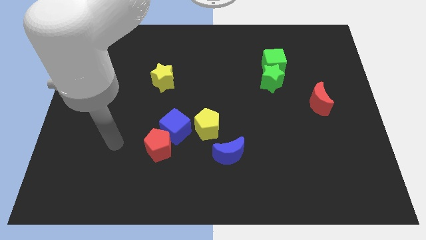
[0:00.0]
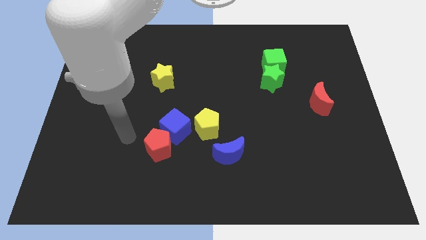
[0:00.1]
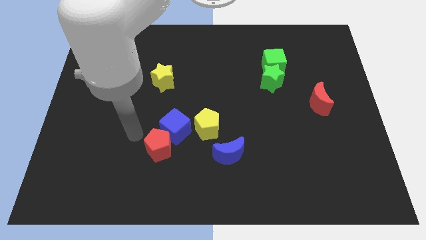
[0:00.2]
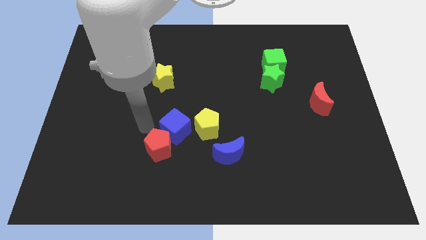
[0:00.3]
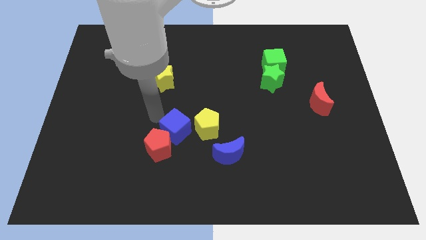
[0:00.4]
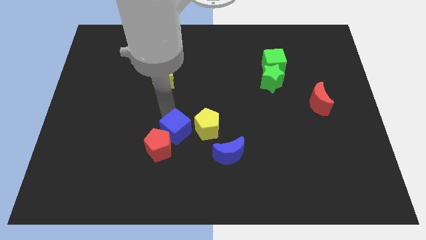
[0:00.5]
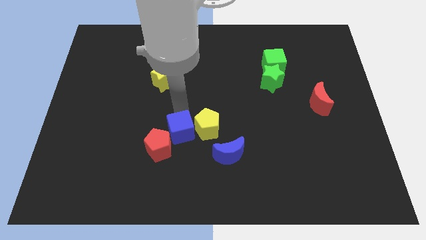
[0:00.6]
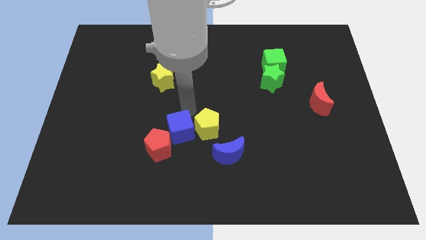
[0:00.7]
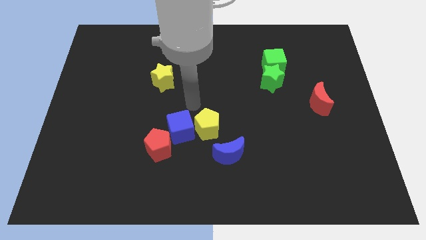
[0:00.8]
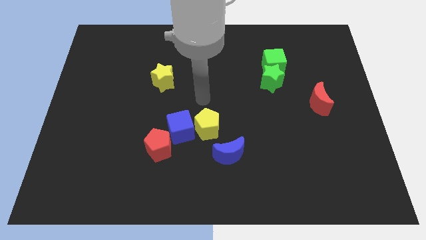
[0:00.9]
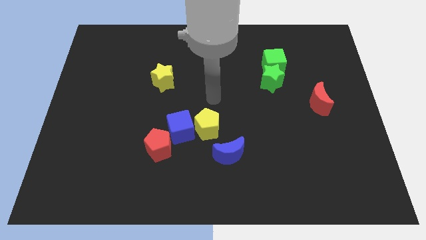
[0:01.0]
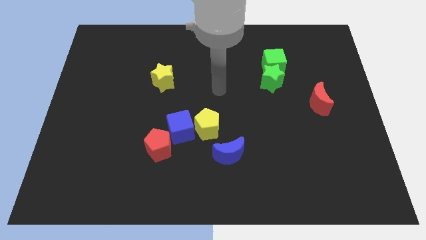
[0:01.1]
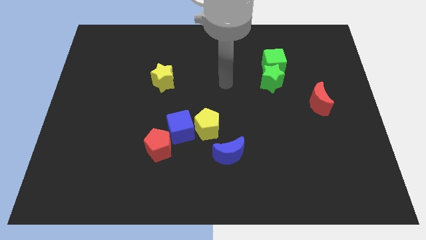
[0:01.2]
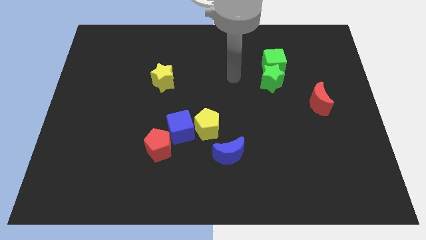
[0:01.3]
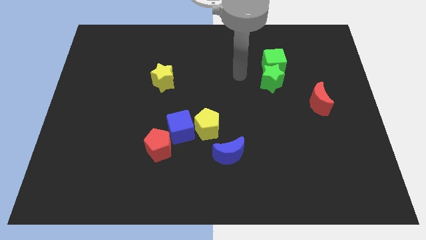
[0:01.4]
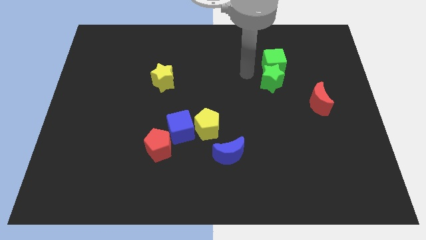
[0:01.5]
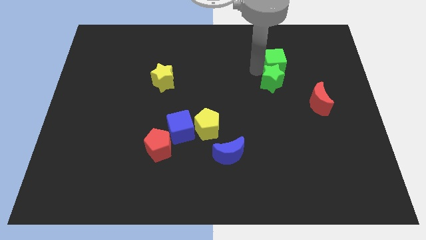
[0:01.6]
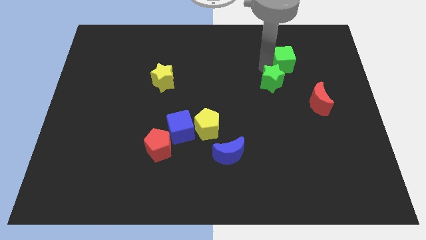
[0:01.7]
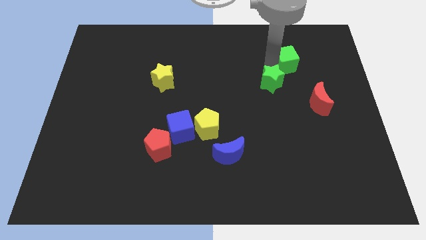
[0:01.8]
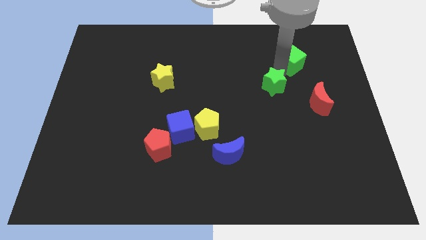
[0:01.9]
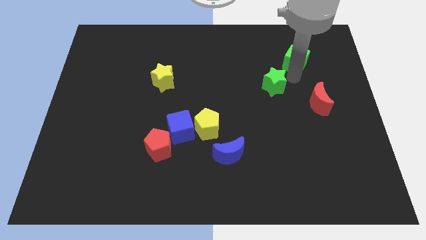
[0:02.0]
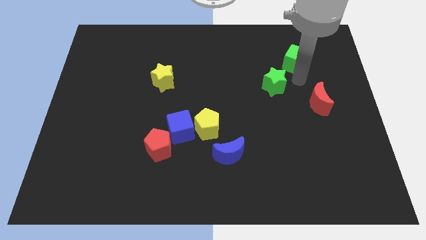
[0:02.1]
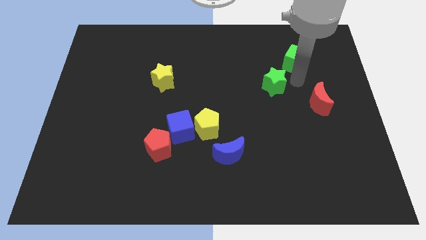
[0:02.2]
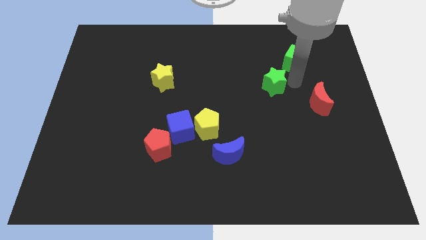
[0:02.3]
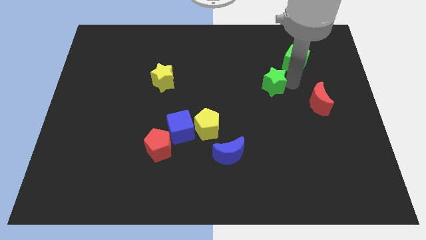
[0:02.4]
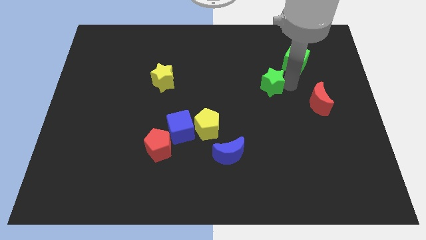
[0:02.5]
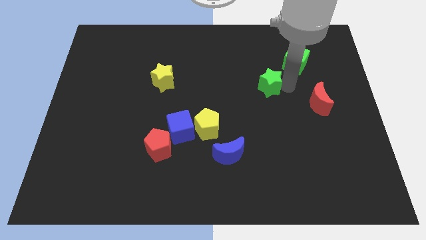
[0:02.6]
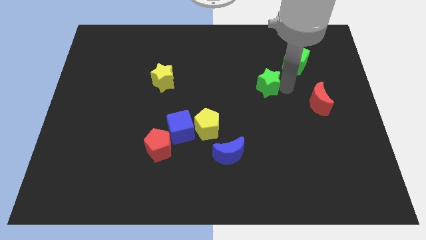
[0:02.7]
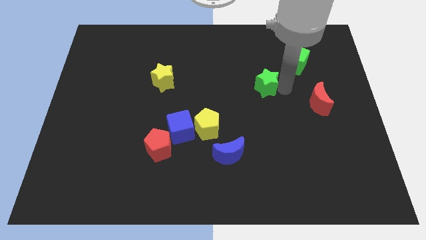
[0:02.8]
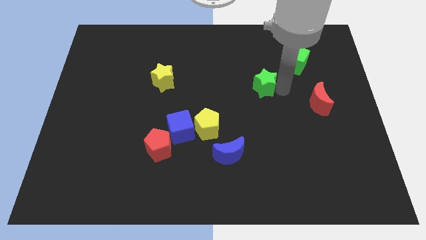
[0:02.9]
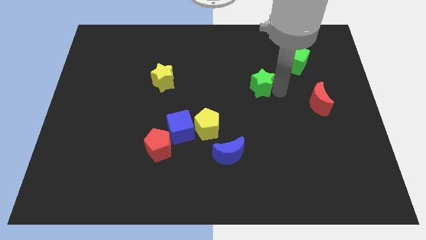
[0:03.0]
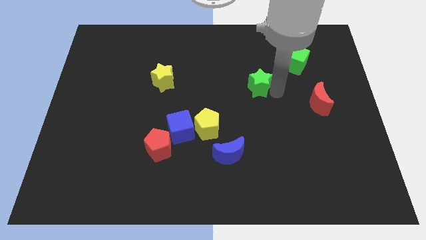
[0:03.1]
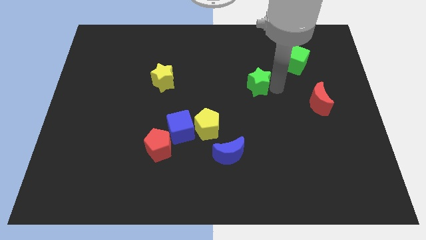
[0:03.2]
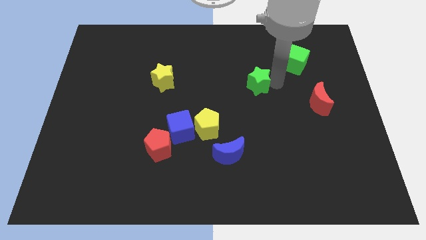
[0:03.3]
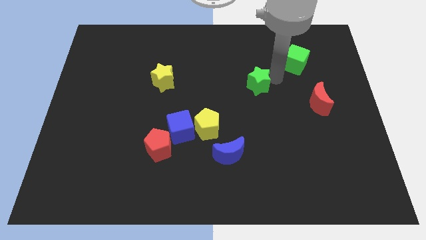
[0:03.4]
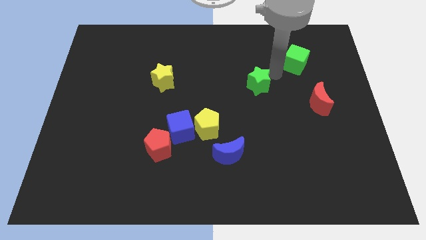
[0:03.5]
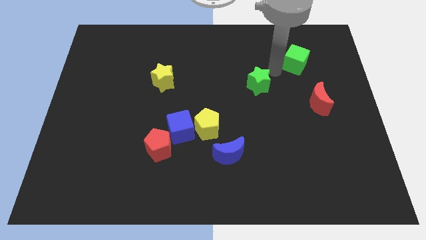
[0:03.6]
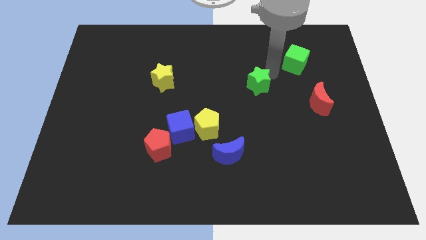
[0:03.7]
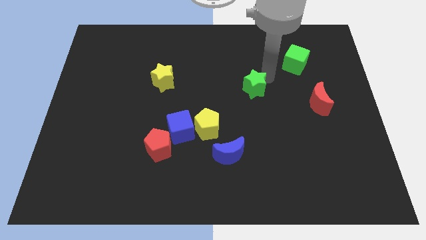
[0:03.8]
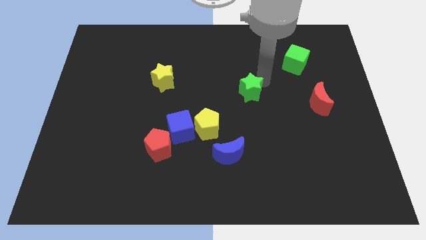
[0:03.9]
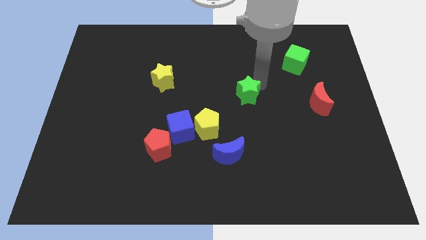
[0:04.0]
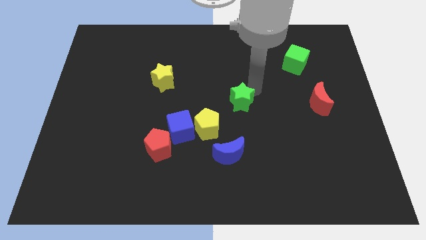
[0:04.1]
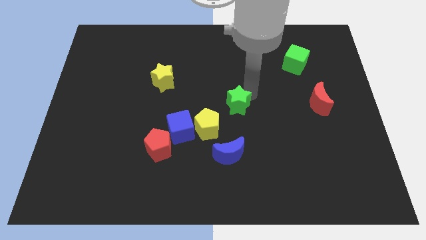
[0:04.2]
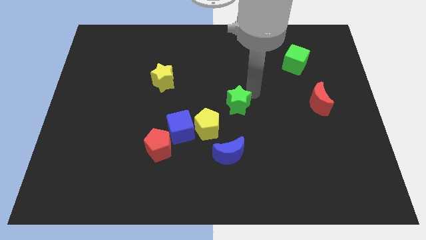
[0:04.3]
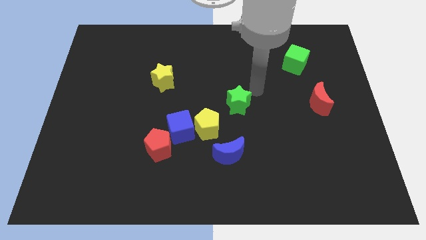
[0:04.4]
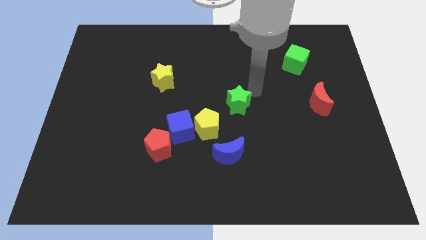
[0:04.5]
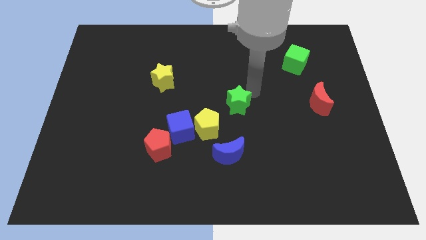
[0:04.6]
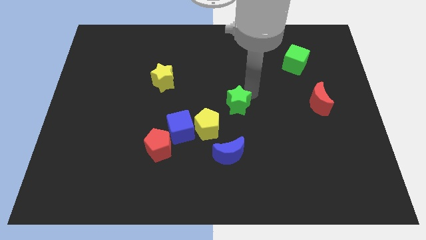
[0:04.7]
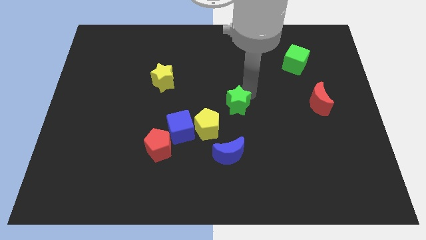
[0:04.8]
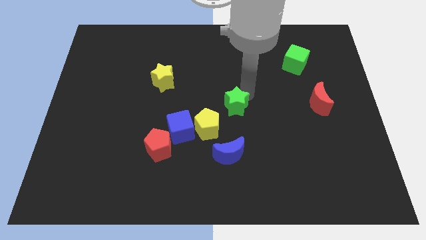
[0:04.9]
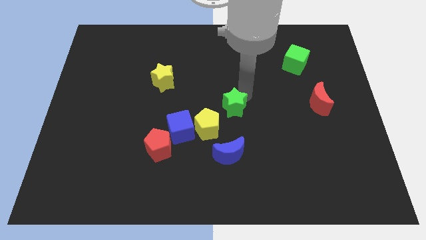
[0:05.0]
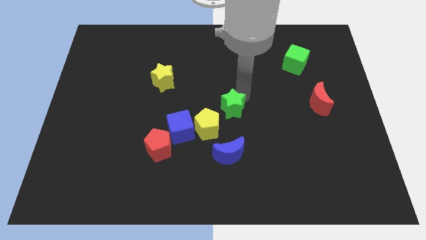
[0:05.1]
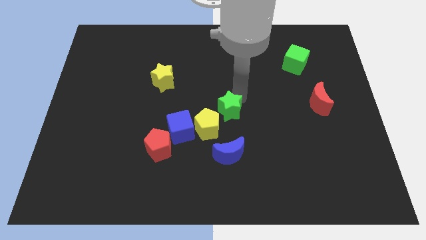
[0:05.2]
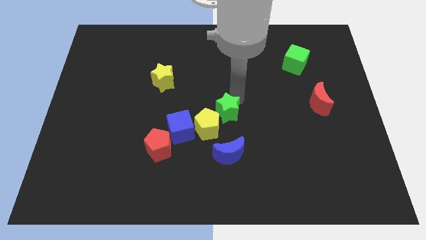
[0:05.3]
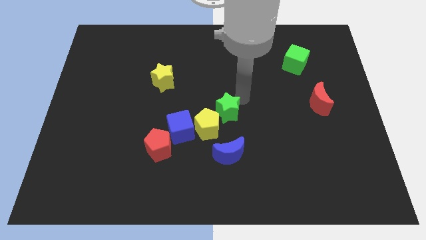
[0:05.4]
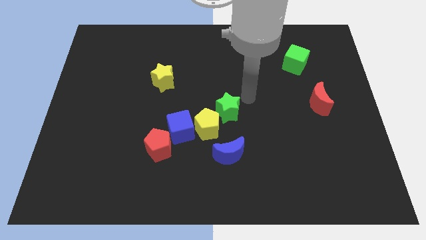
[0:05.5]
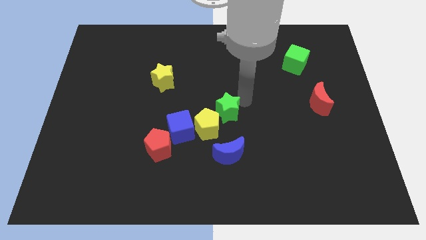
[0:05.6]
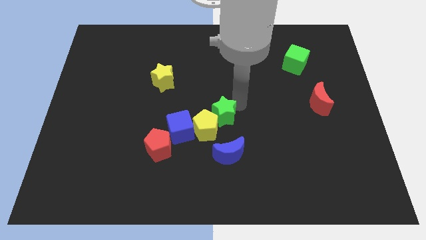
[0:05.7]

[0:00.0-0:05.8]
push the green star close to the yellow pentagon

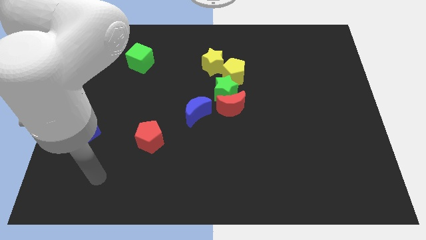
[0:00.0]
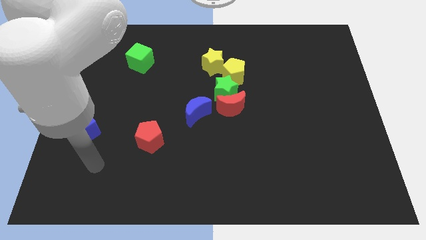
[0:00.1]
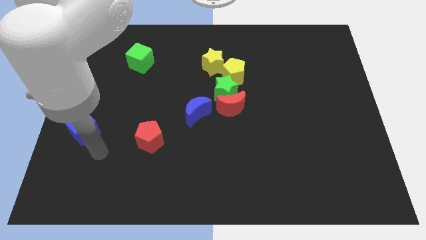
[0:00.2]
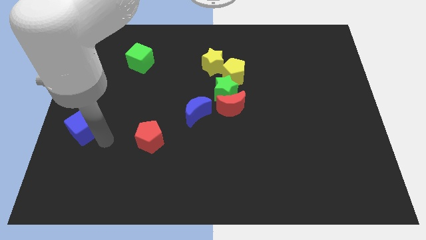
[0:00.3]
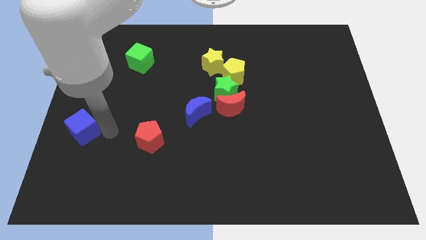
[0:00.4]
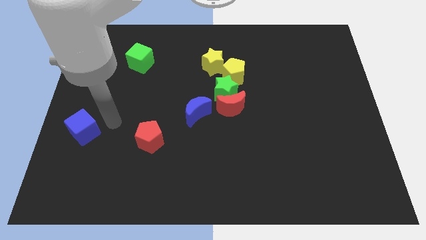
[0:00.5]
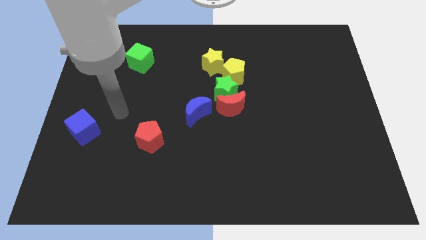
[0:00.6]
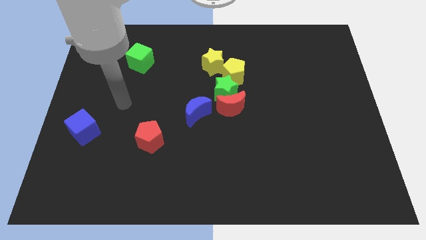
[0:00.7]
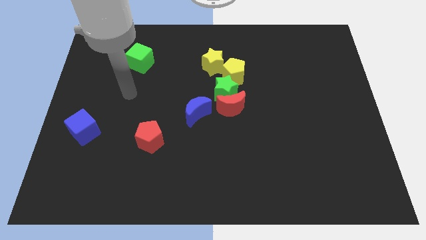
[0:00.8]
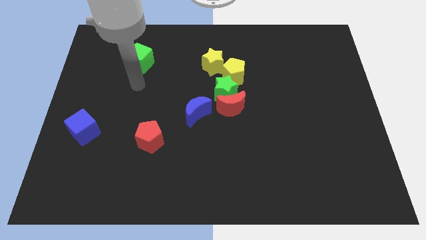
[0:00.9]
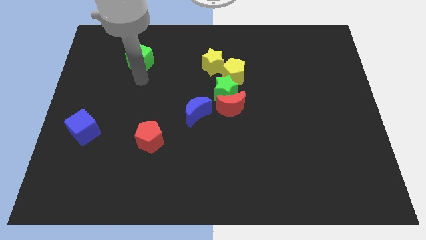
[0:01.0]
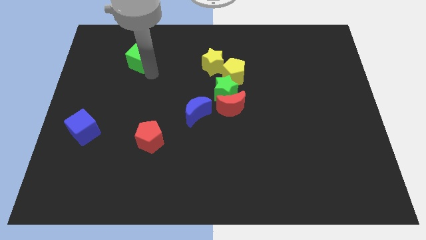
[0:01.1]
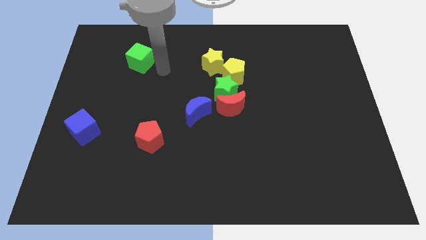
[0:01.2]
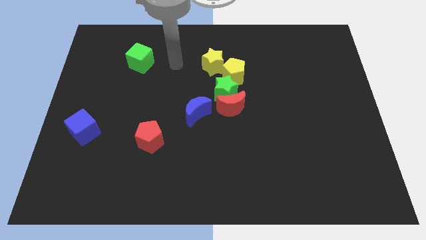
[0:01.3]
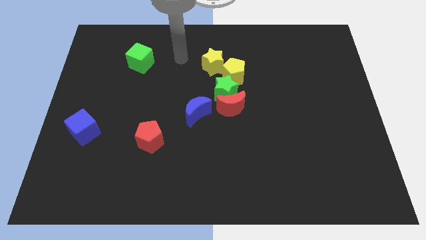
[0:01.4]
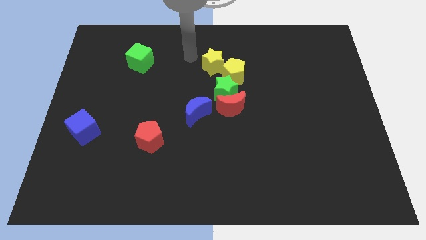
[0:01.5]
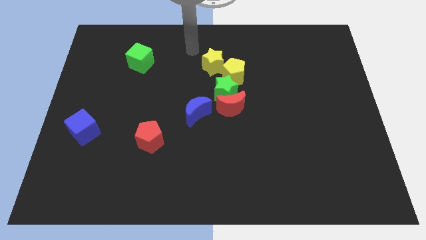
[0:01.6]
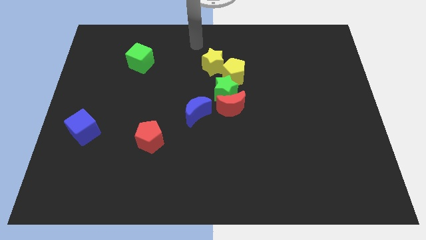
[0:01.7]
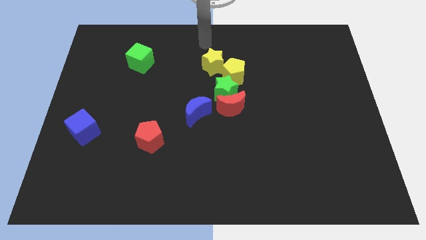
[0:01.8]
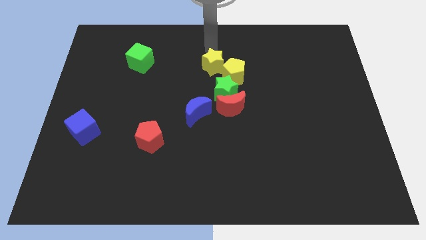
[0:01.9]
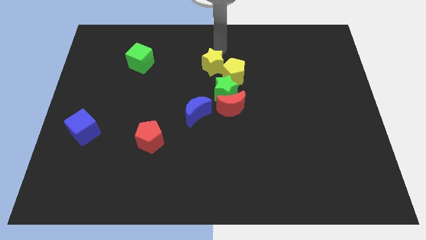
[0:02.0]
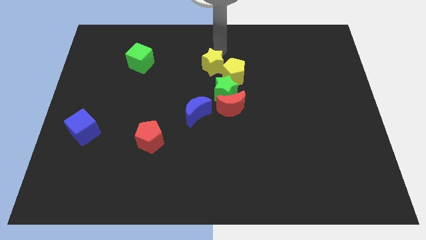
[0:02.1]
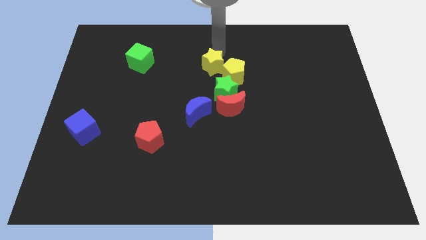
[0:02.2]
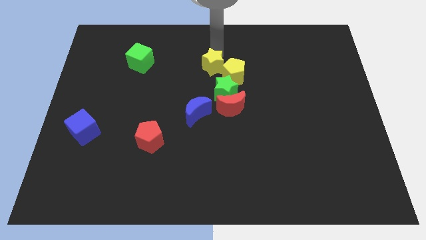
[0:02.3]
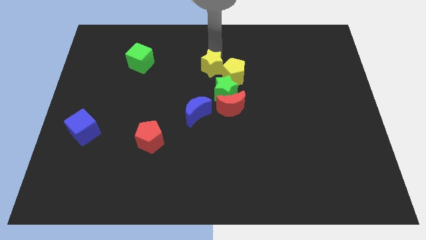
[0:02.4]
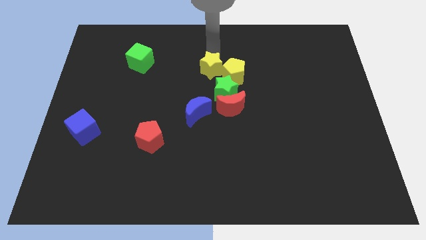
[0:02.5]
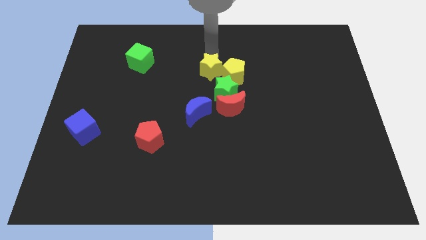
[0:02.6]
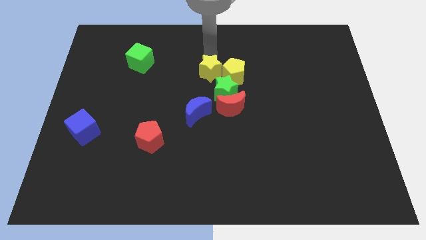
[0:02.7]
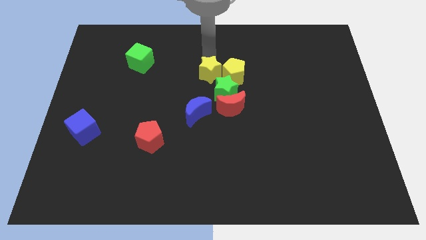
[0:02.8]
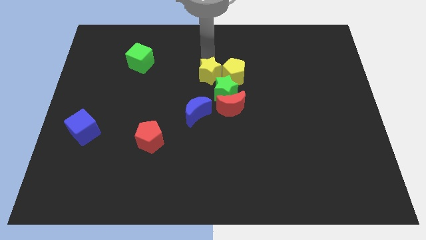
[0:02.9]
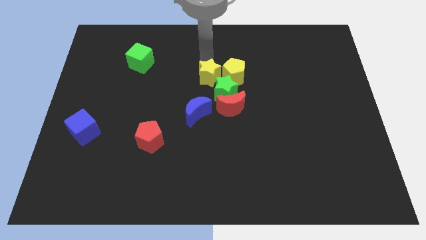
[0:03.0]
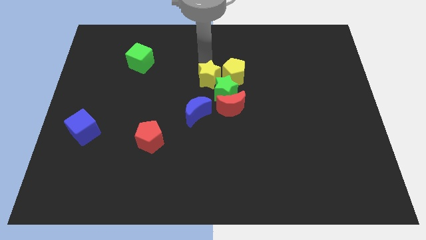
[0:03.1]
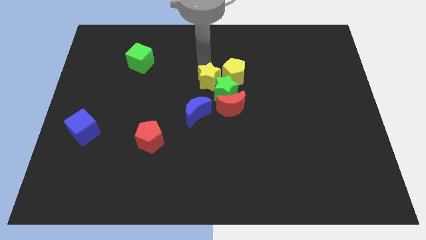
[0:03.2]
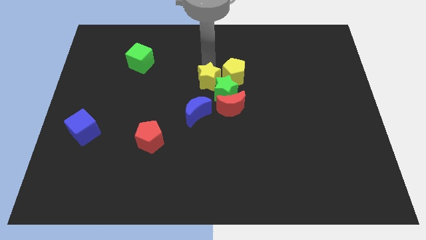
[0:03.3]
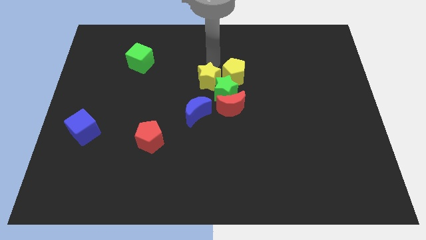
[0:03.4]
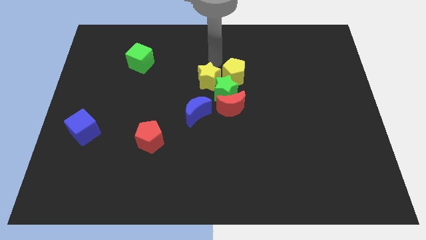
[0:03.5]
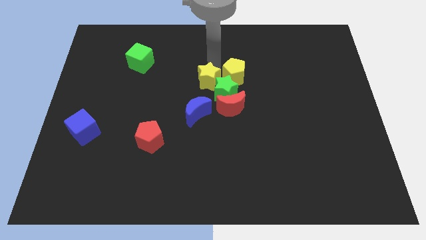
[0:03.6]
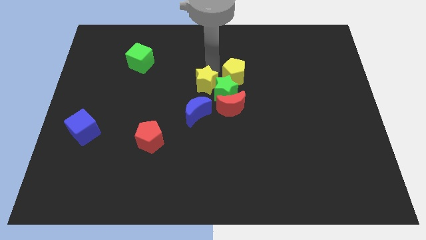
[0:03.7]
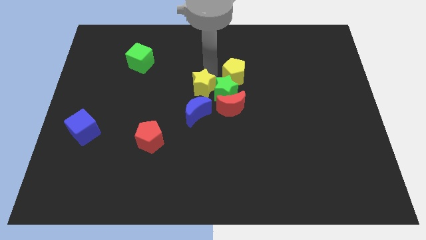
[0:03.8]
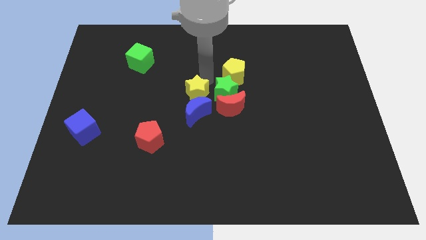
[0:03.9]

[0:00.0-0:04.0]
slide the yellow star towards the blue moon
